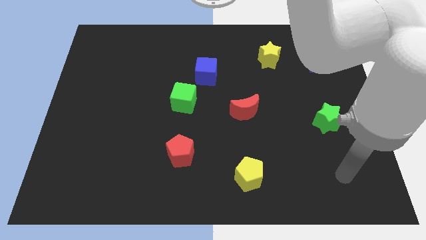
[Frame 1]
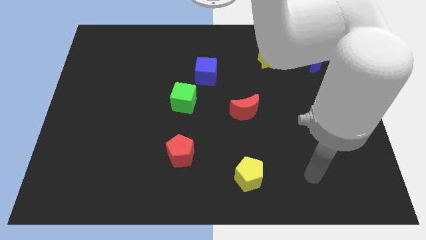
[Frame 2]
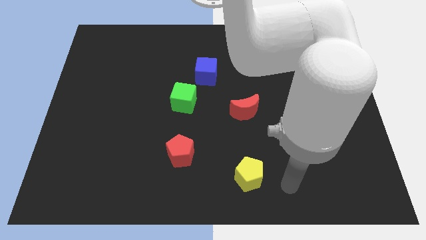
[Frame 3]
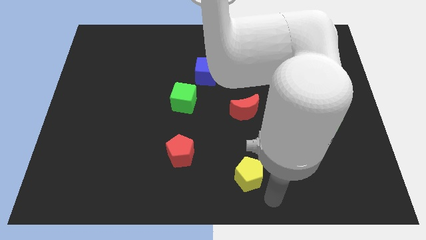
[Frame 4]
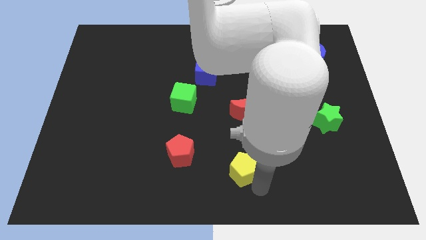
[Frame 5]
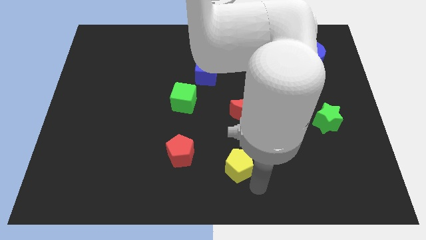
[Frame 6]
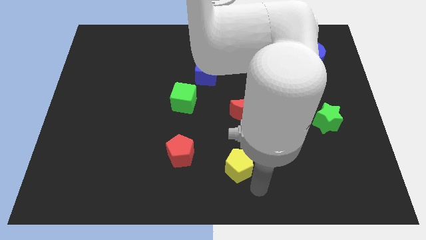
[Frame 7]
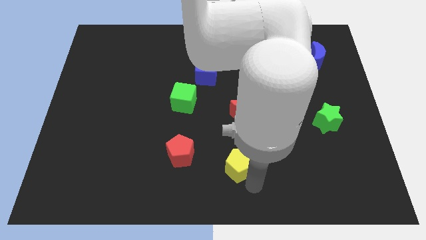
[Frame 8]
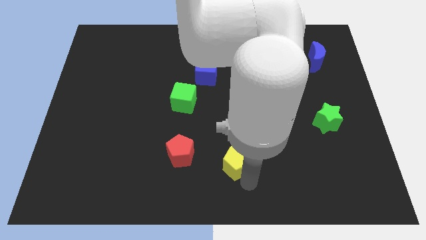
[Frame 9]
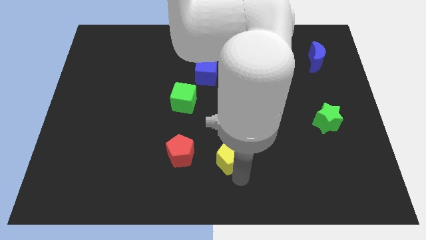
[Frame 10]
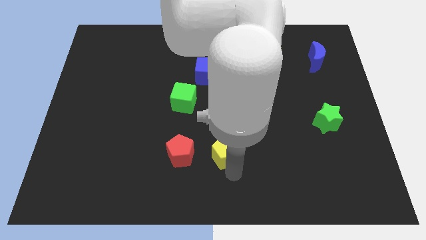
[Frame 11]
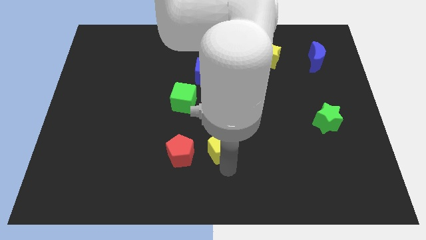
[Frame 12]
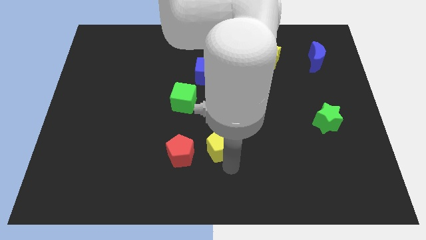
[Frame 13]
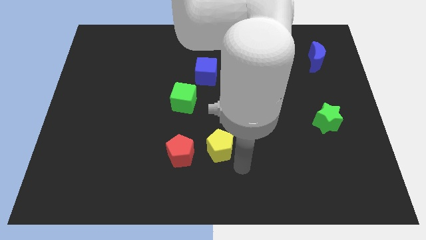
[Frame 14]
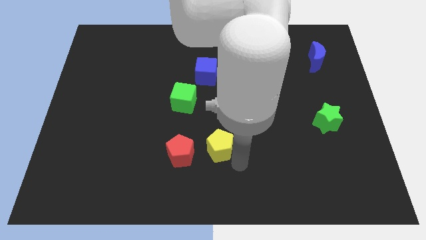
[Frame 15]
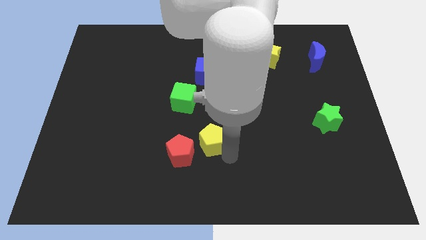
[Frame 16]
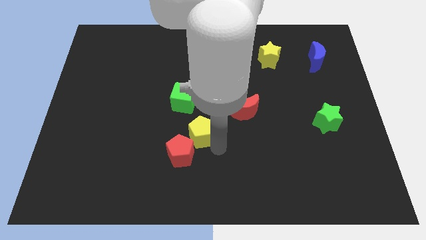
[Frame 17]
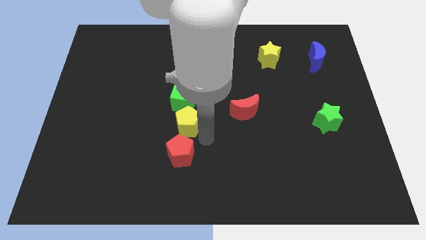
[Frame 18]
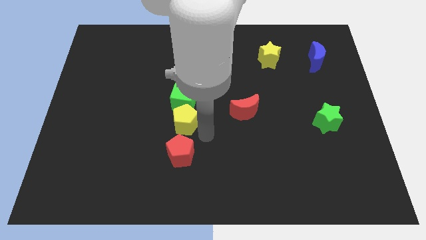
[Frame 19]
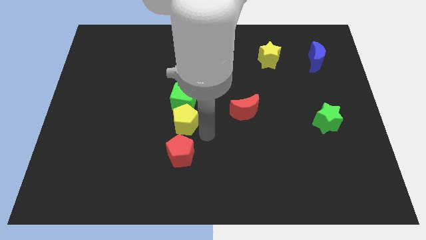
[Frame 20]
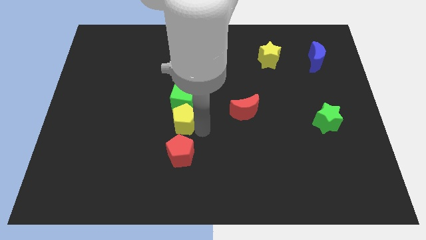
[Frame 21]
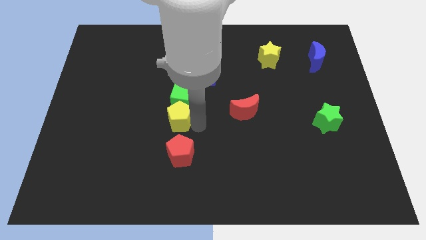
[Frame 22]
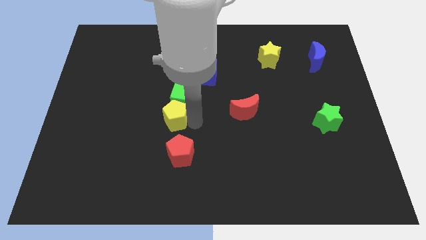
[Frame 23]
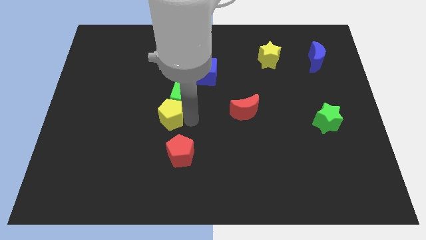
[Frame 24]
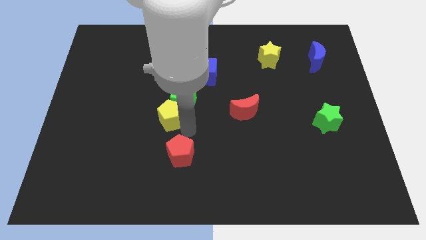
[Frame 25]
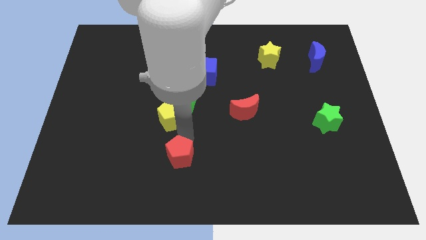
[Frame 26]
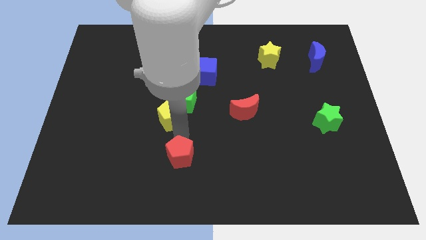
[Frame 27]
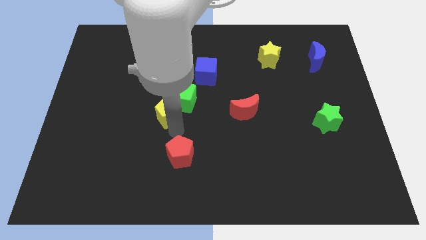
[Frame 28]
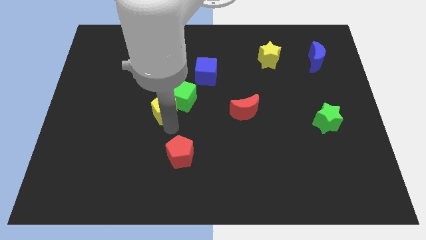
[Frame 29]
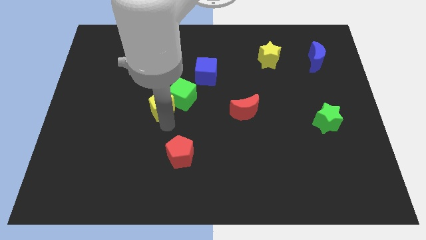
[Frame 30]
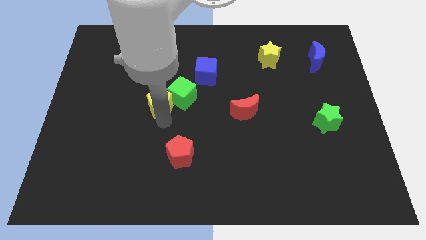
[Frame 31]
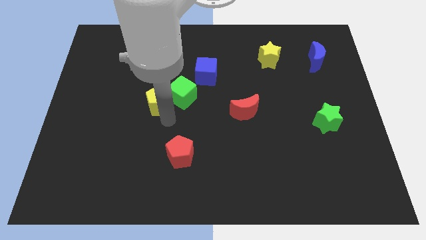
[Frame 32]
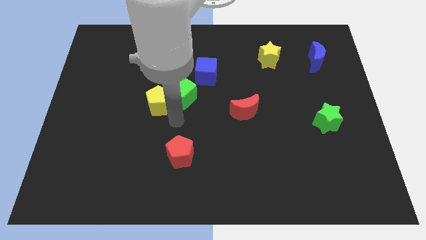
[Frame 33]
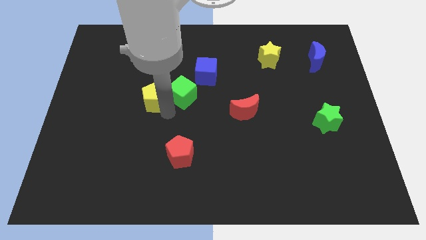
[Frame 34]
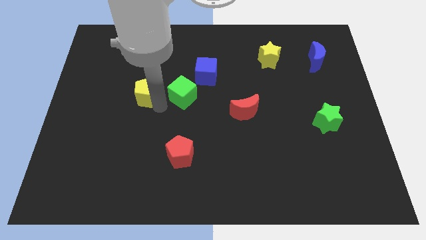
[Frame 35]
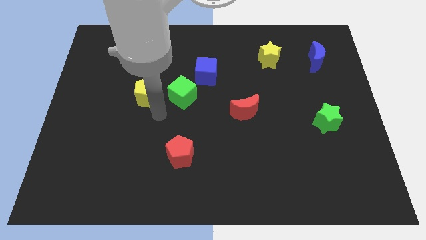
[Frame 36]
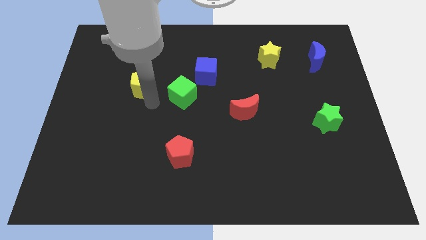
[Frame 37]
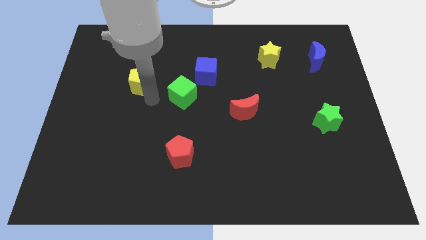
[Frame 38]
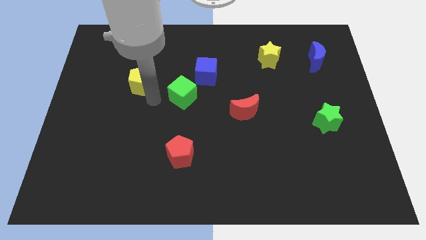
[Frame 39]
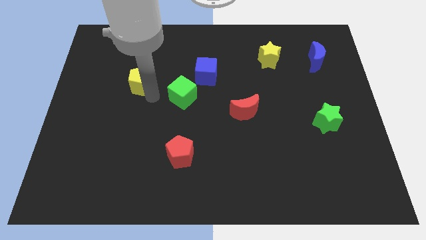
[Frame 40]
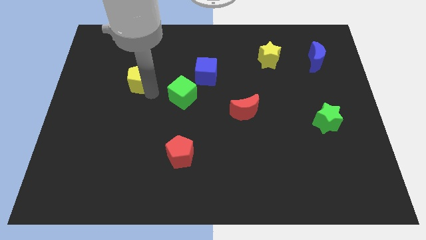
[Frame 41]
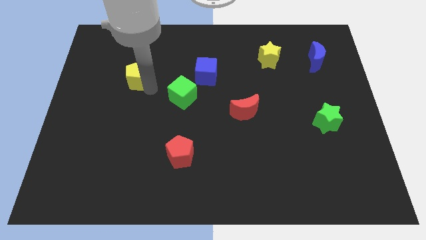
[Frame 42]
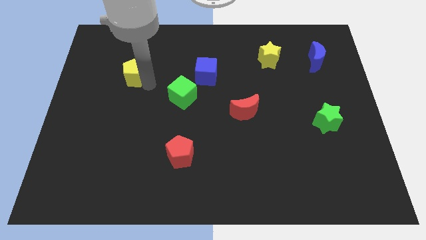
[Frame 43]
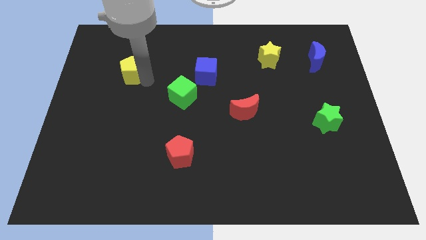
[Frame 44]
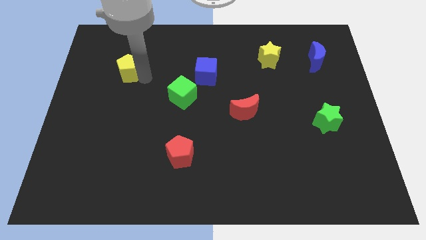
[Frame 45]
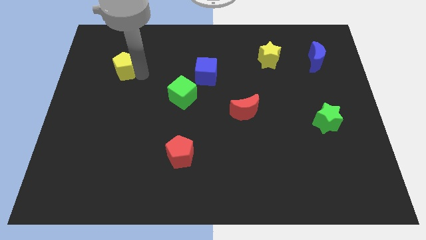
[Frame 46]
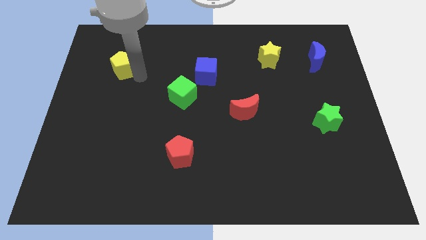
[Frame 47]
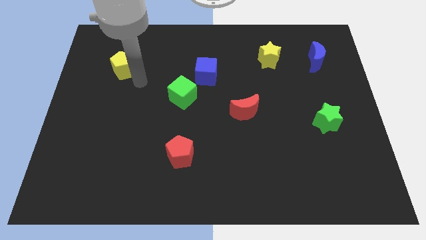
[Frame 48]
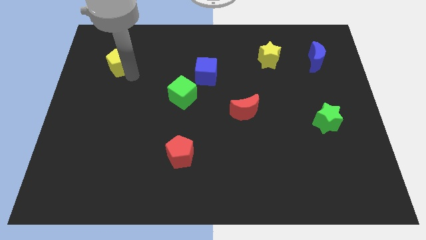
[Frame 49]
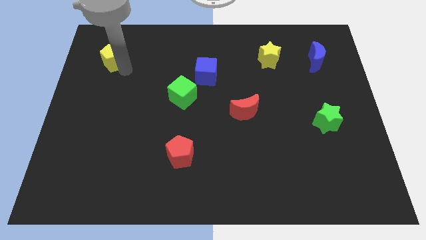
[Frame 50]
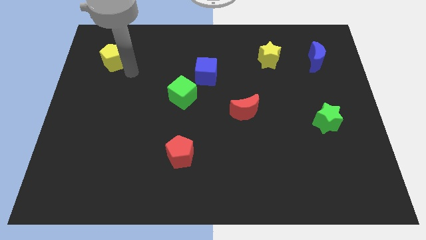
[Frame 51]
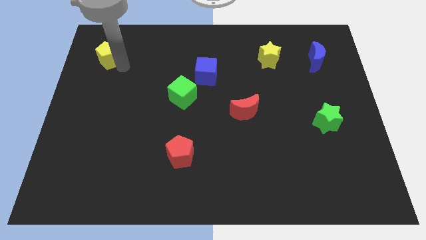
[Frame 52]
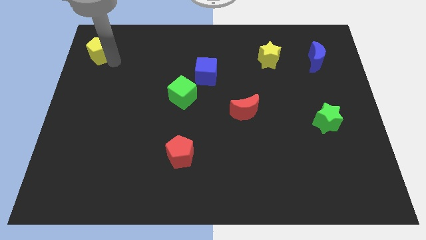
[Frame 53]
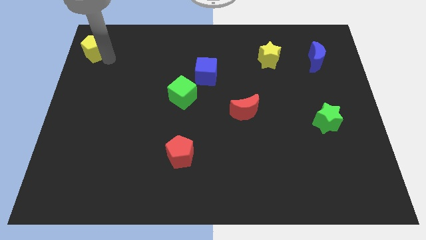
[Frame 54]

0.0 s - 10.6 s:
move the yellow pentagon to the top left corner

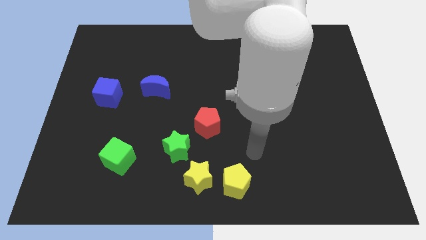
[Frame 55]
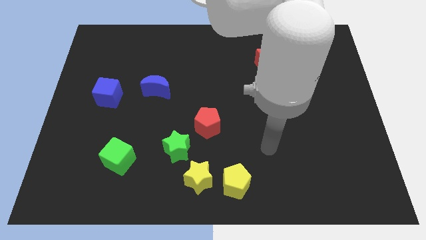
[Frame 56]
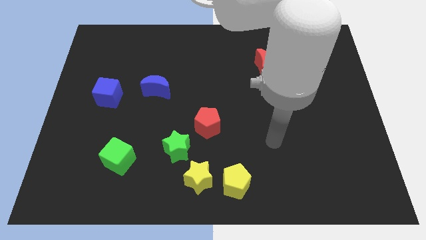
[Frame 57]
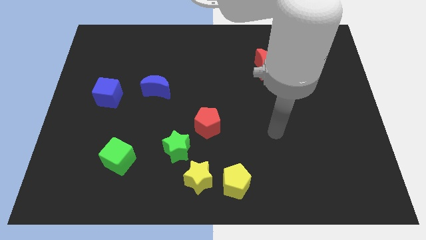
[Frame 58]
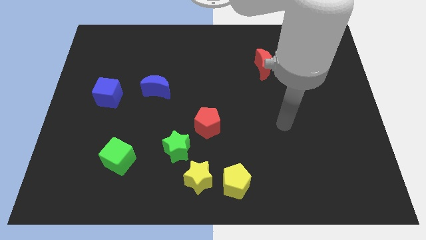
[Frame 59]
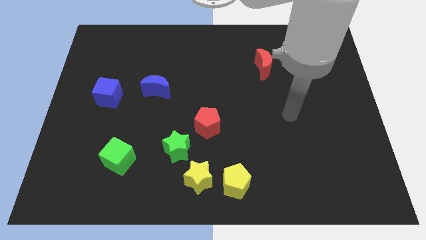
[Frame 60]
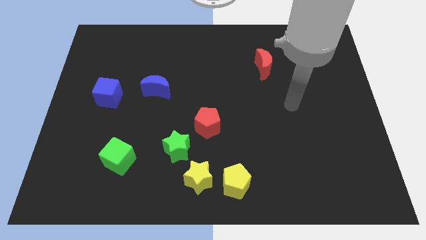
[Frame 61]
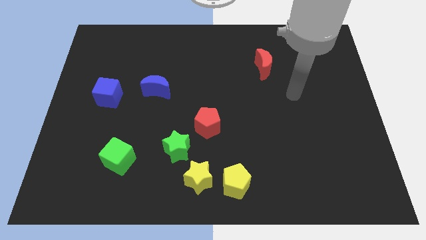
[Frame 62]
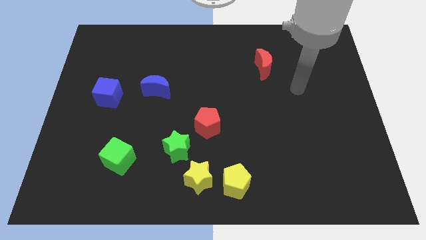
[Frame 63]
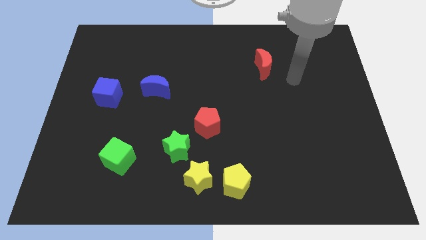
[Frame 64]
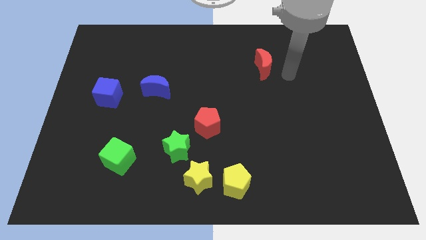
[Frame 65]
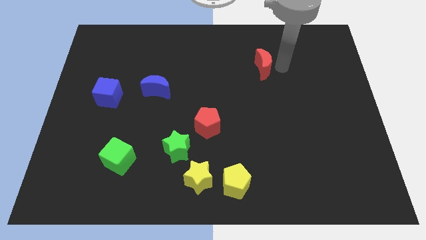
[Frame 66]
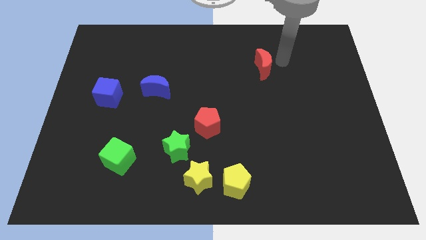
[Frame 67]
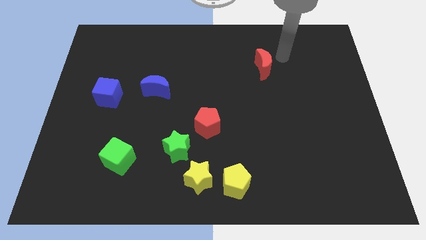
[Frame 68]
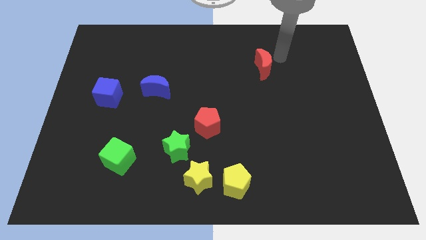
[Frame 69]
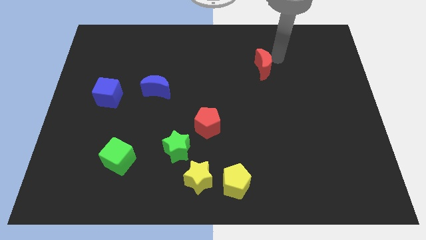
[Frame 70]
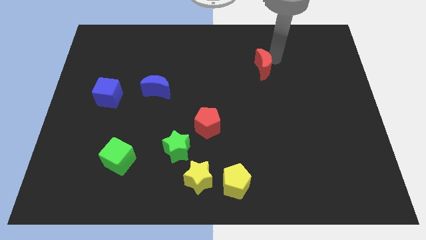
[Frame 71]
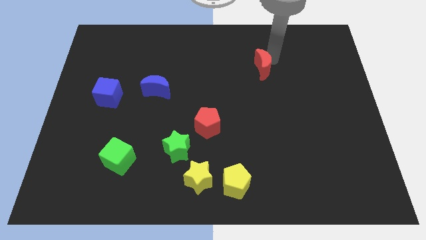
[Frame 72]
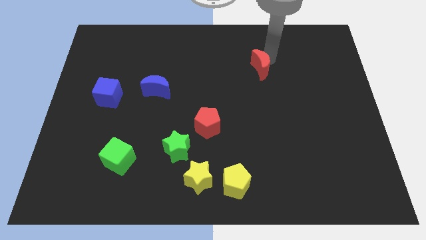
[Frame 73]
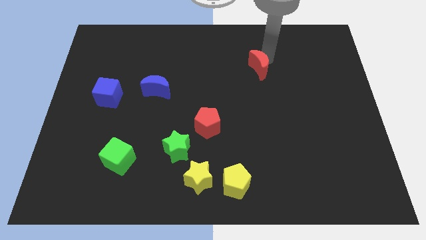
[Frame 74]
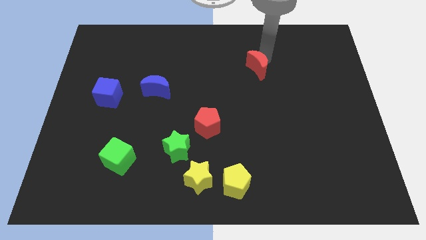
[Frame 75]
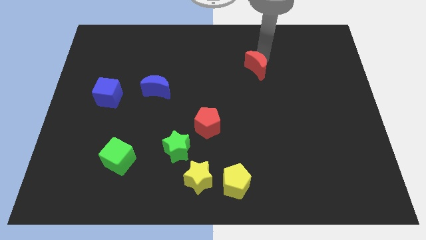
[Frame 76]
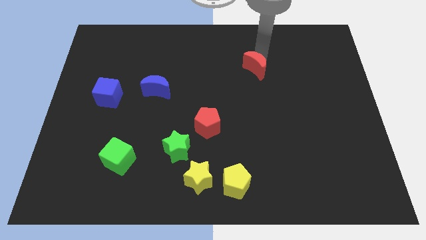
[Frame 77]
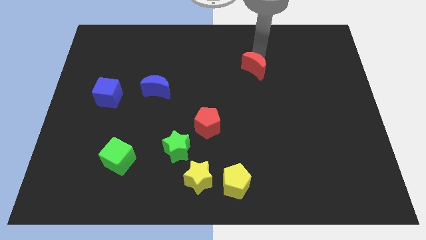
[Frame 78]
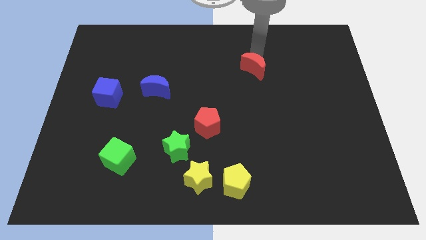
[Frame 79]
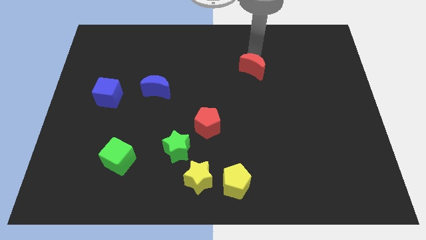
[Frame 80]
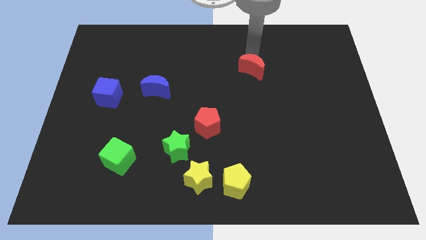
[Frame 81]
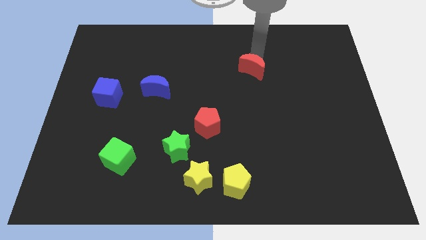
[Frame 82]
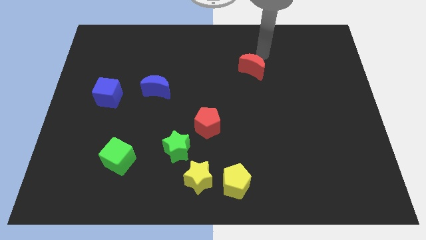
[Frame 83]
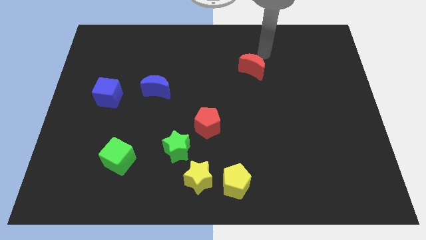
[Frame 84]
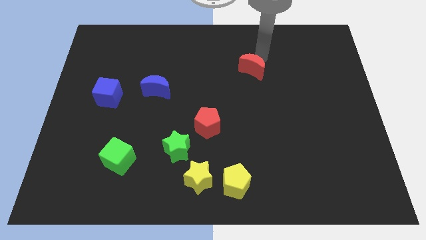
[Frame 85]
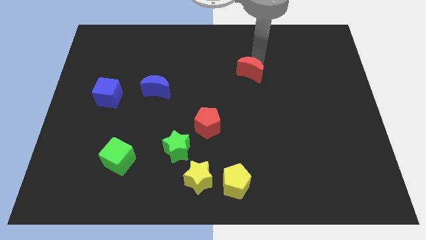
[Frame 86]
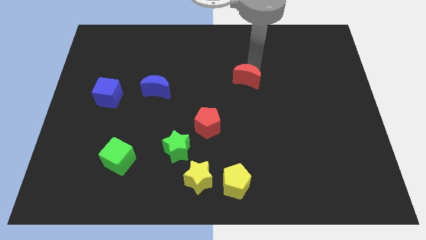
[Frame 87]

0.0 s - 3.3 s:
slide the red moon to the middle
